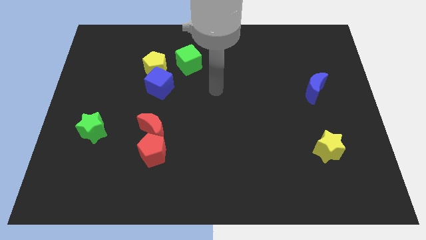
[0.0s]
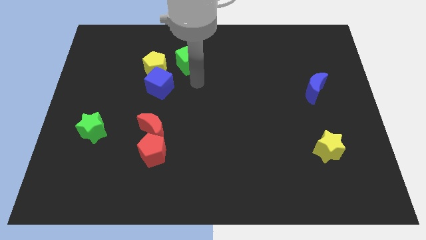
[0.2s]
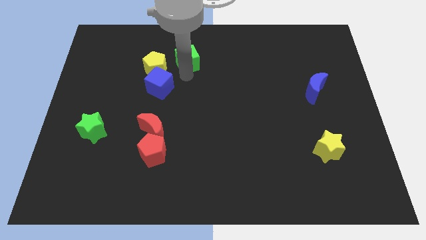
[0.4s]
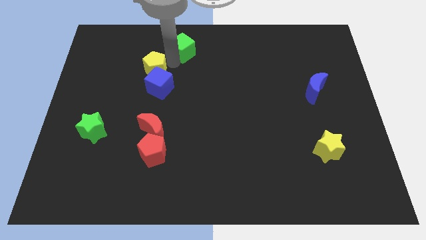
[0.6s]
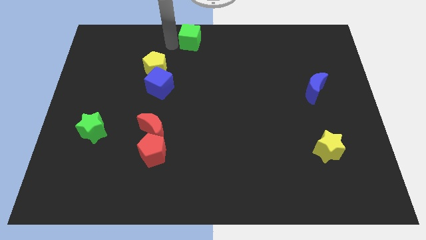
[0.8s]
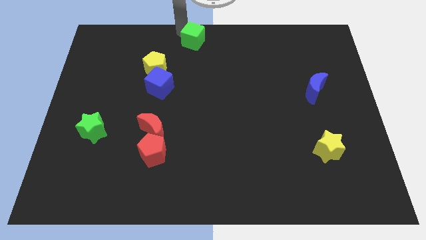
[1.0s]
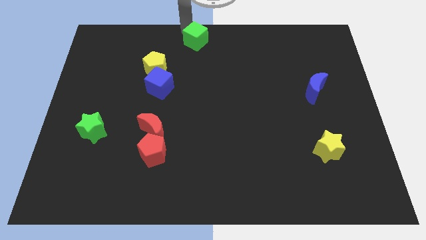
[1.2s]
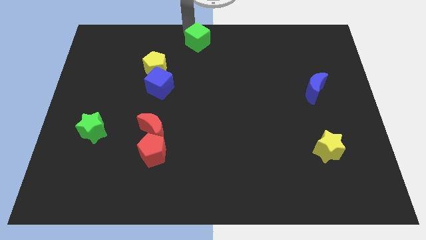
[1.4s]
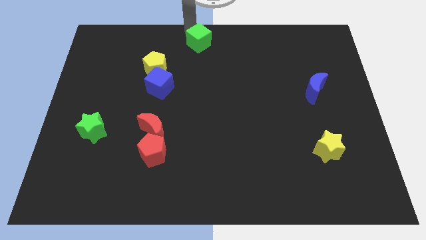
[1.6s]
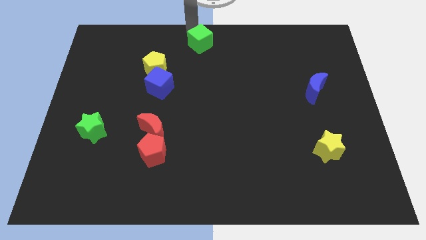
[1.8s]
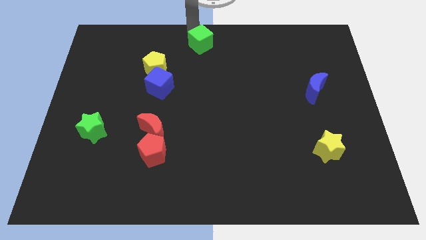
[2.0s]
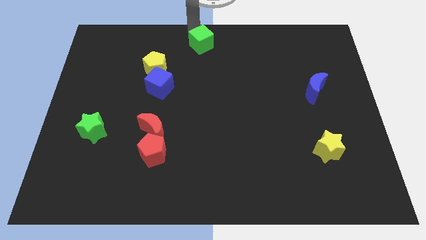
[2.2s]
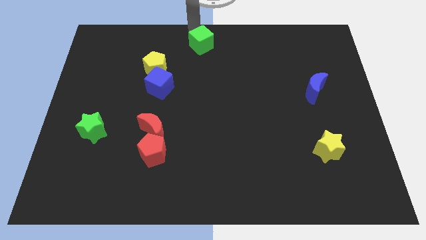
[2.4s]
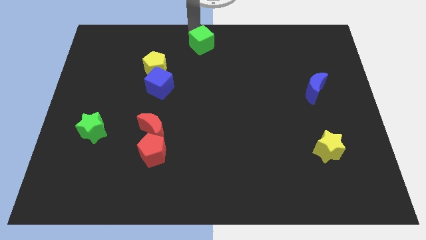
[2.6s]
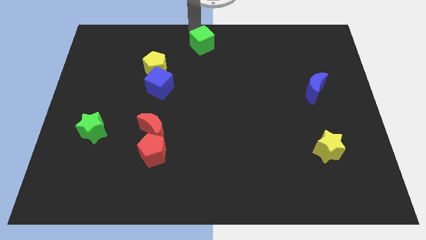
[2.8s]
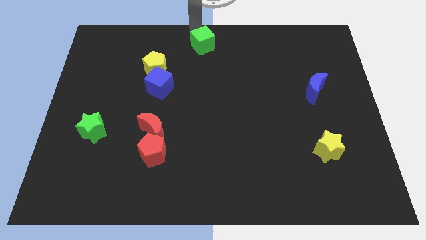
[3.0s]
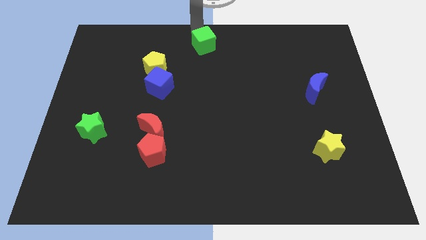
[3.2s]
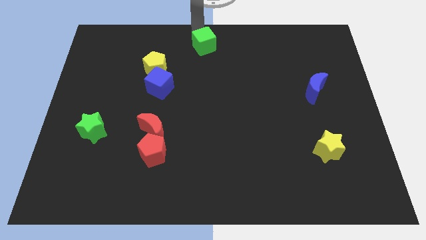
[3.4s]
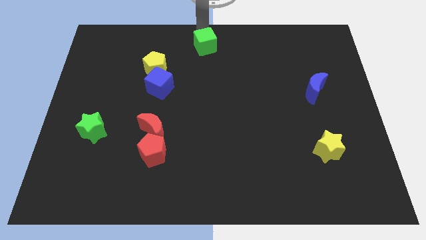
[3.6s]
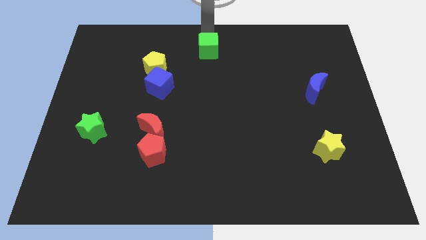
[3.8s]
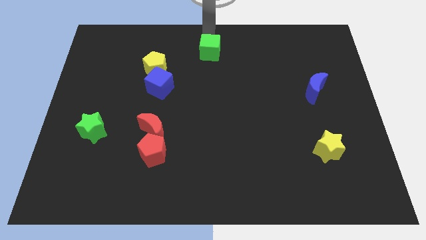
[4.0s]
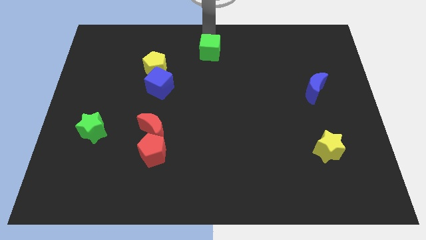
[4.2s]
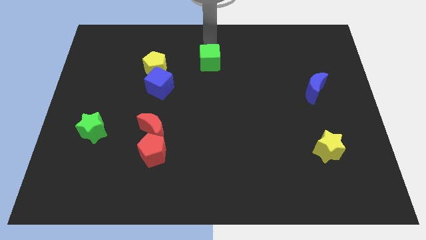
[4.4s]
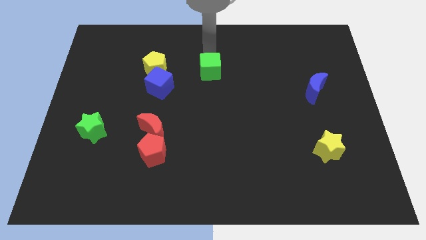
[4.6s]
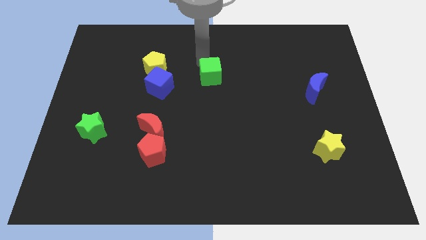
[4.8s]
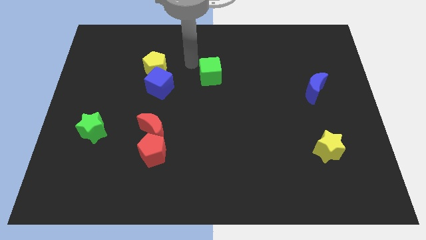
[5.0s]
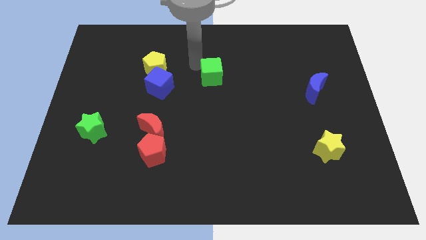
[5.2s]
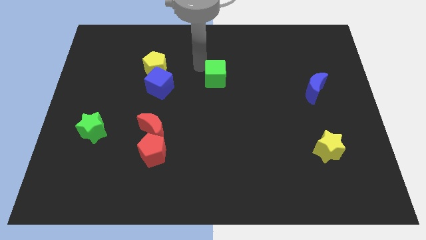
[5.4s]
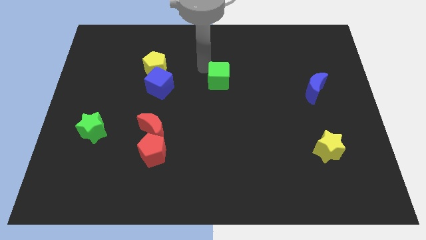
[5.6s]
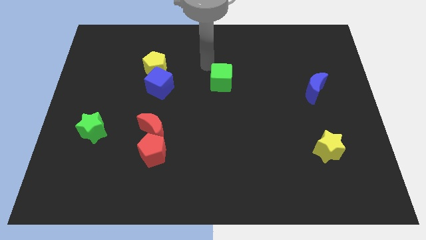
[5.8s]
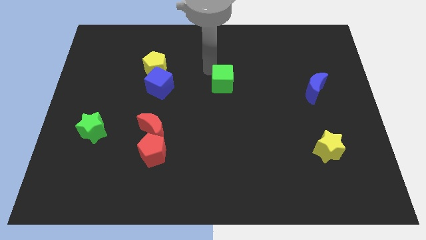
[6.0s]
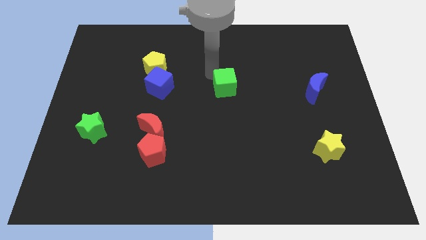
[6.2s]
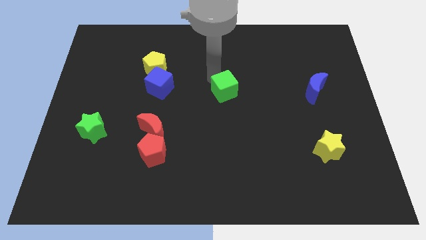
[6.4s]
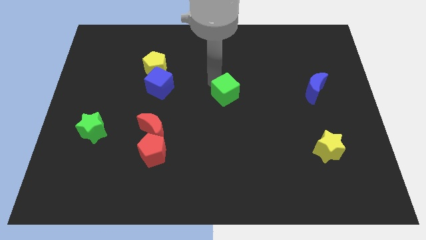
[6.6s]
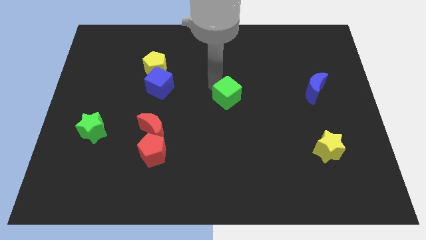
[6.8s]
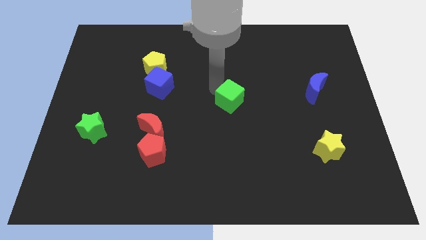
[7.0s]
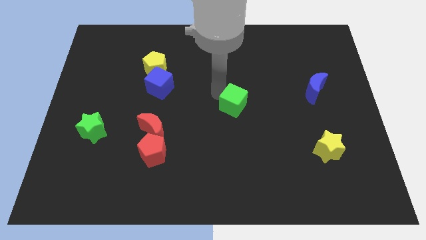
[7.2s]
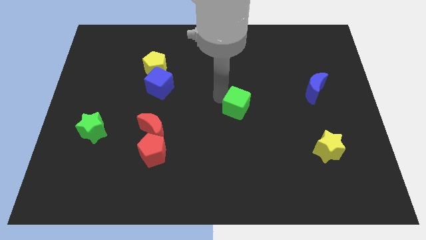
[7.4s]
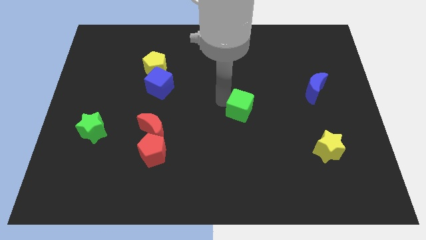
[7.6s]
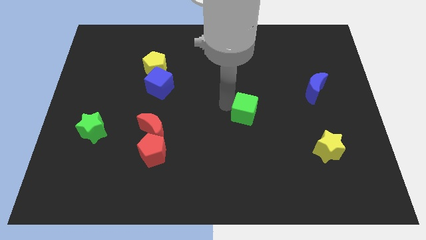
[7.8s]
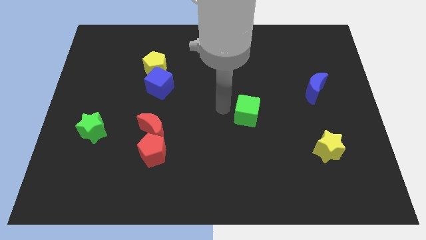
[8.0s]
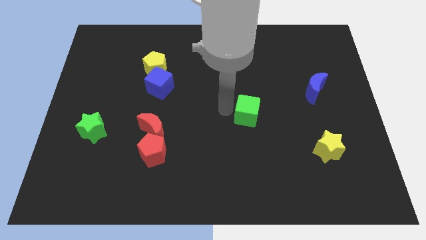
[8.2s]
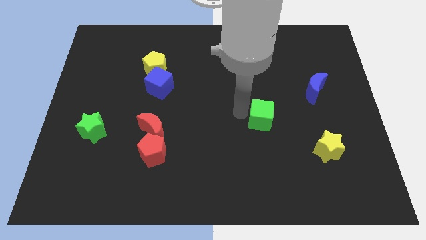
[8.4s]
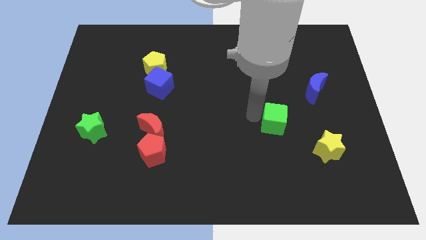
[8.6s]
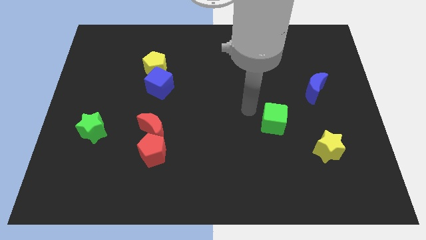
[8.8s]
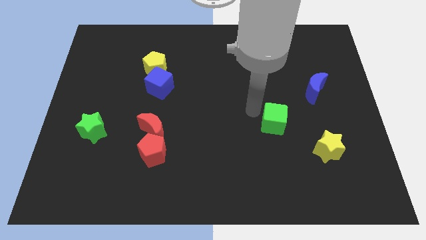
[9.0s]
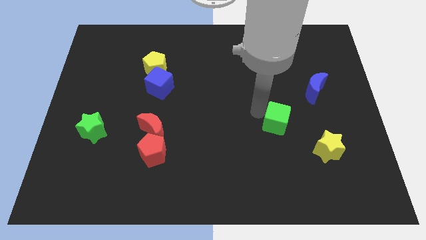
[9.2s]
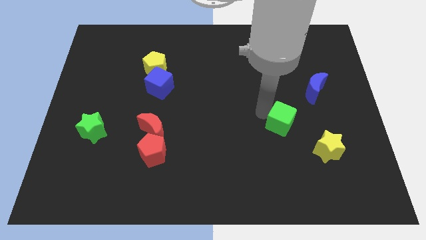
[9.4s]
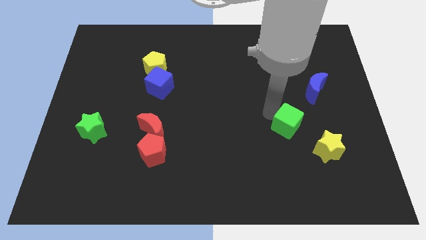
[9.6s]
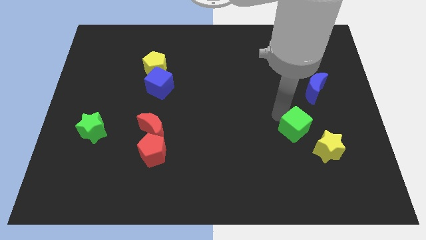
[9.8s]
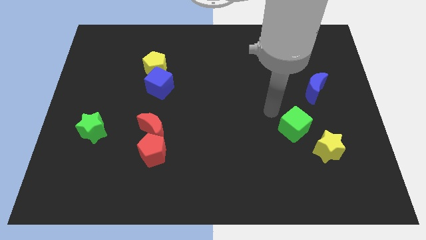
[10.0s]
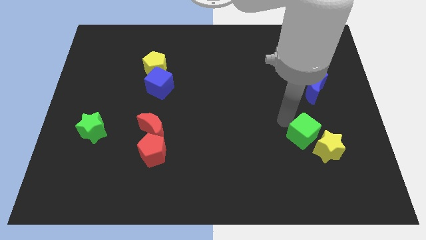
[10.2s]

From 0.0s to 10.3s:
put the green cube to the yellow star

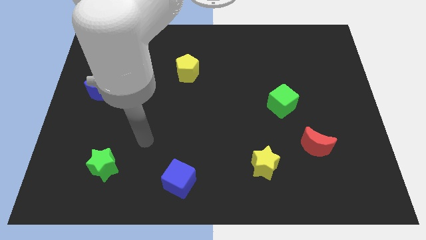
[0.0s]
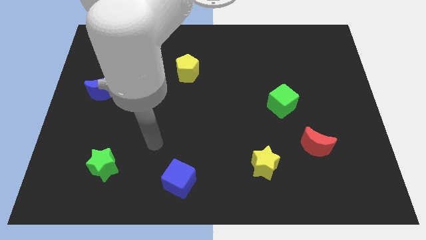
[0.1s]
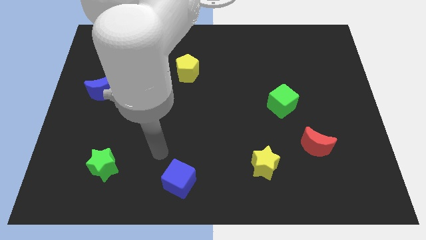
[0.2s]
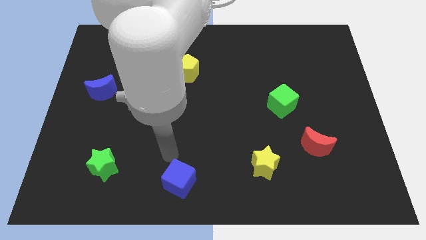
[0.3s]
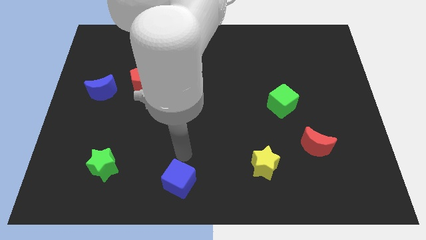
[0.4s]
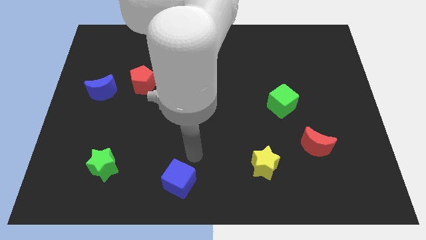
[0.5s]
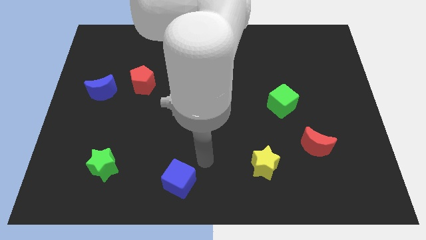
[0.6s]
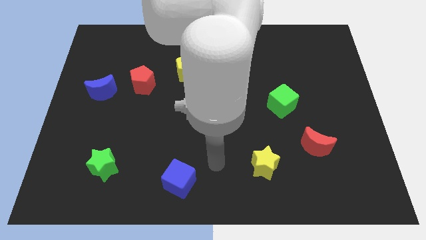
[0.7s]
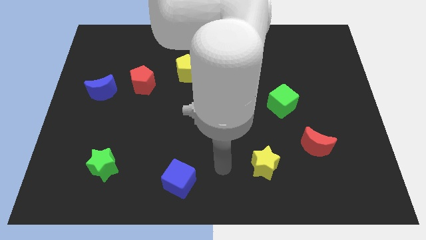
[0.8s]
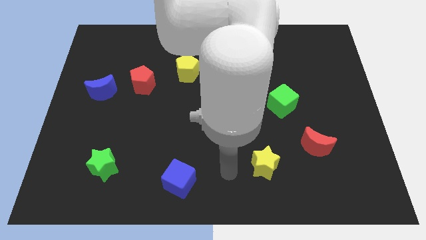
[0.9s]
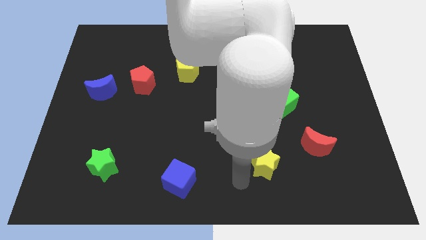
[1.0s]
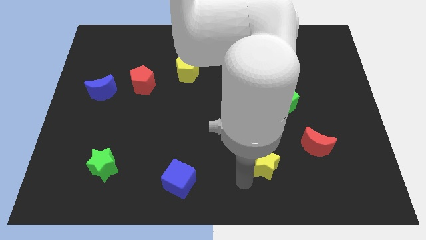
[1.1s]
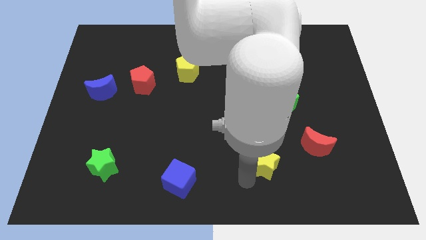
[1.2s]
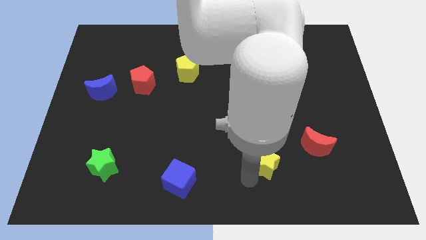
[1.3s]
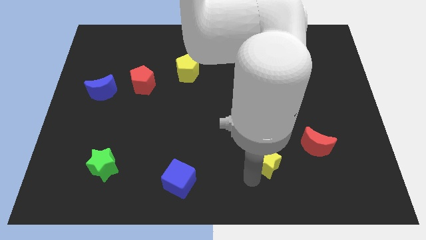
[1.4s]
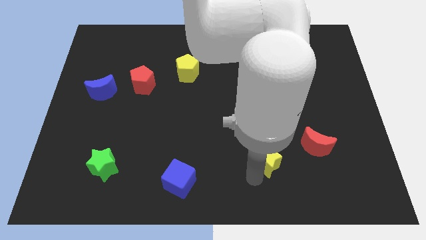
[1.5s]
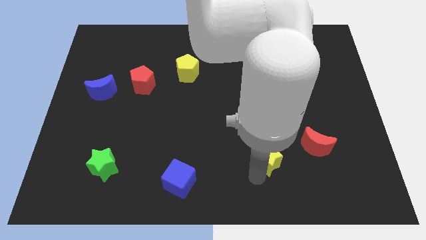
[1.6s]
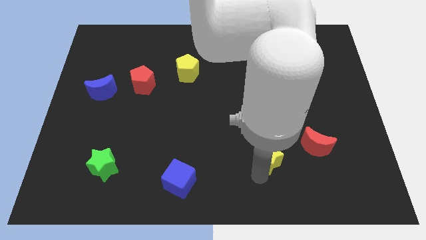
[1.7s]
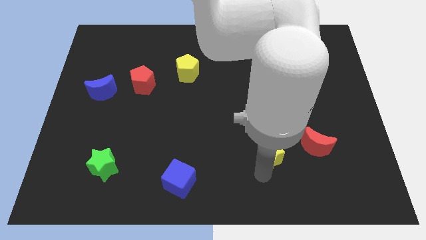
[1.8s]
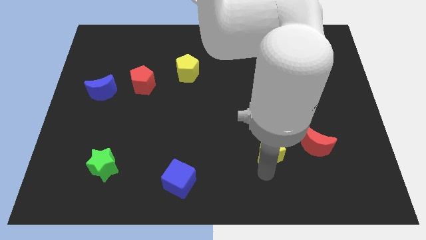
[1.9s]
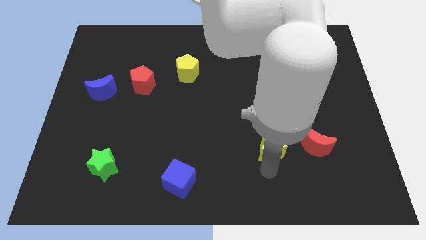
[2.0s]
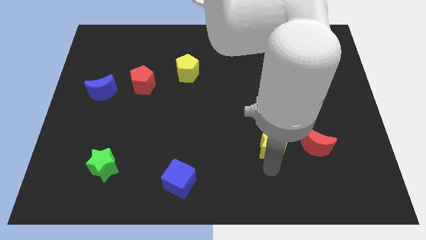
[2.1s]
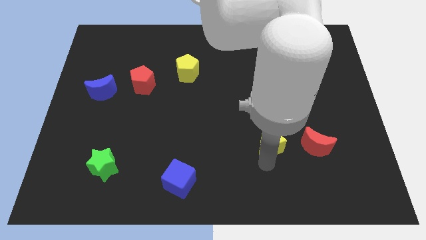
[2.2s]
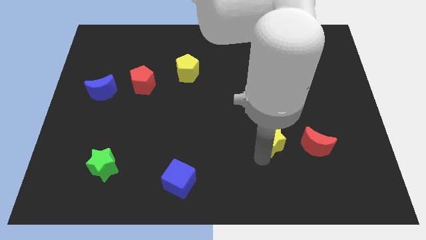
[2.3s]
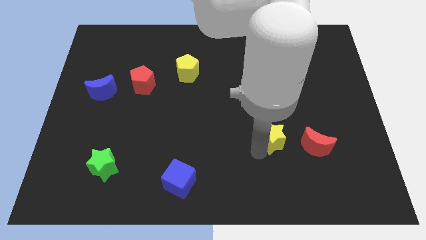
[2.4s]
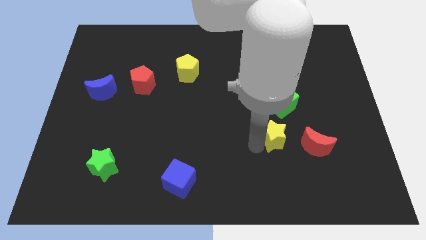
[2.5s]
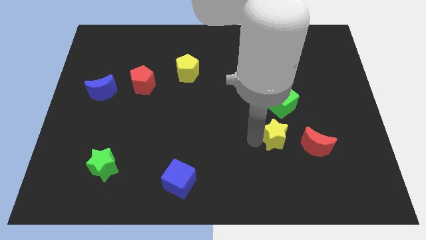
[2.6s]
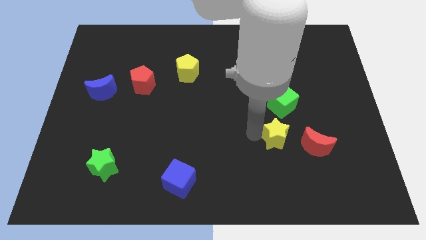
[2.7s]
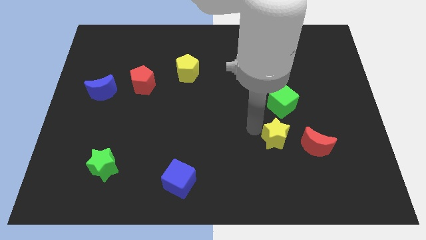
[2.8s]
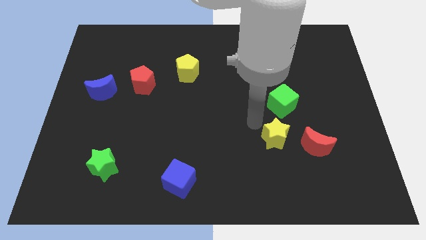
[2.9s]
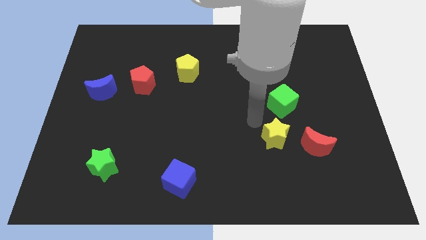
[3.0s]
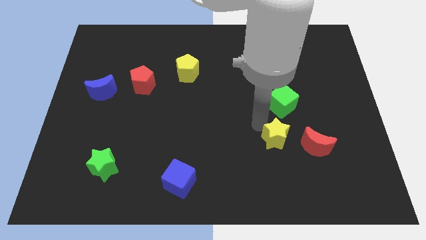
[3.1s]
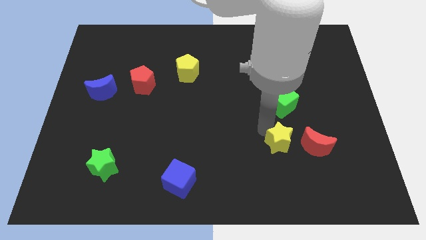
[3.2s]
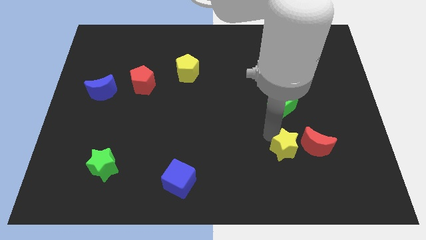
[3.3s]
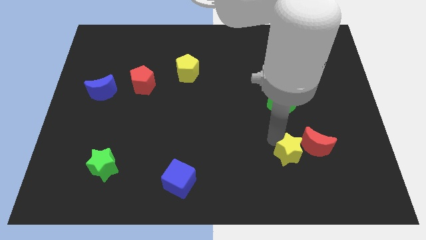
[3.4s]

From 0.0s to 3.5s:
move the yellow star towards the red moon
